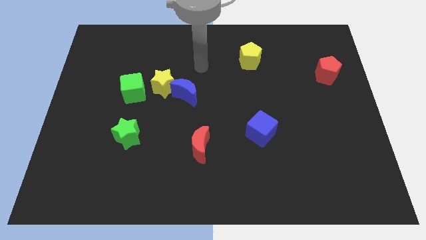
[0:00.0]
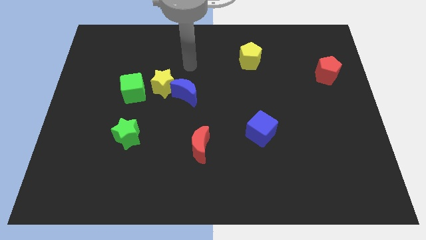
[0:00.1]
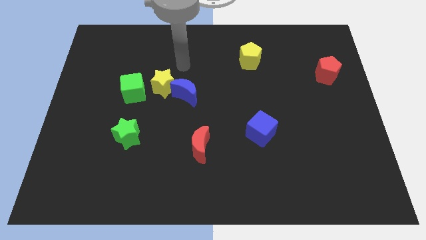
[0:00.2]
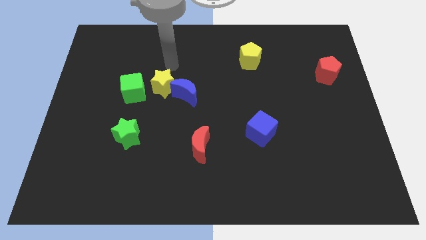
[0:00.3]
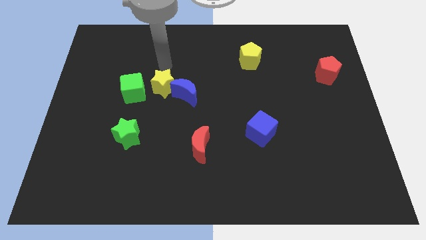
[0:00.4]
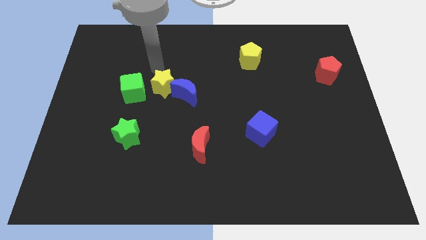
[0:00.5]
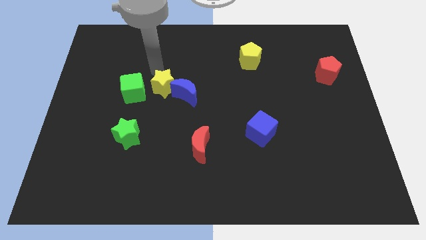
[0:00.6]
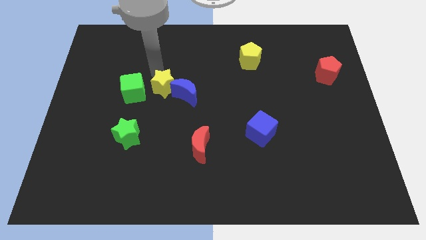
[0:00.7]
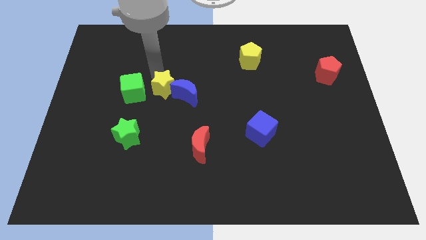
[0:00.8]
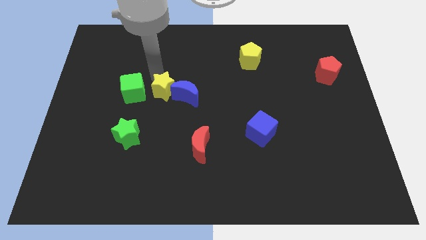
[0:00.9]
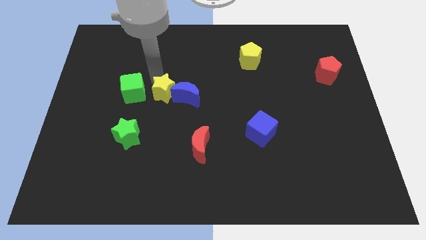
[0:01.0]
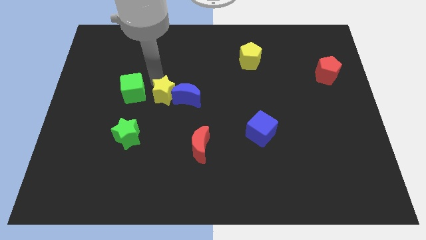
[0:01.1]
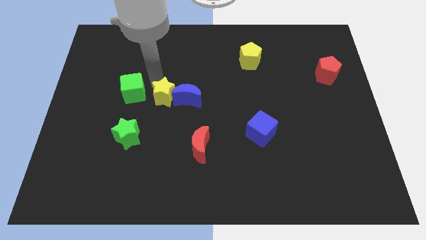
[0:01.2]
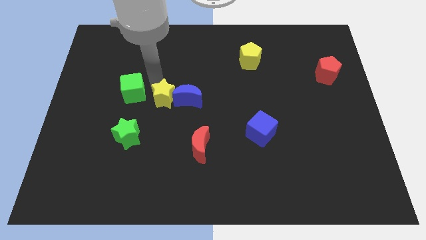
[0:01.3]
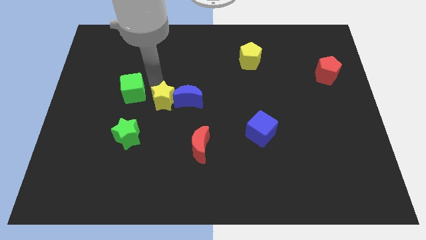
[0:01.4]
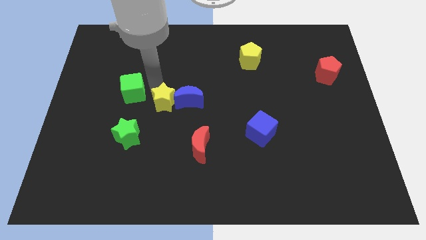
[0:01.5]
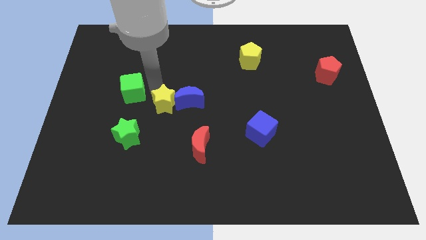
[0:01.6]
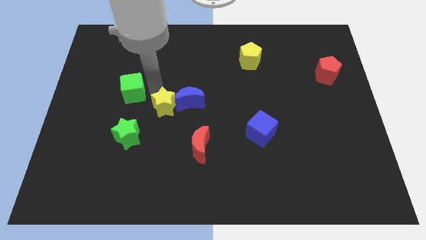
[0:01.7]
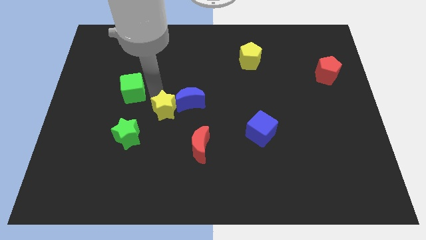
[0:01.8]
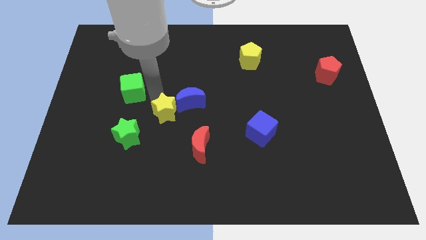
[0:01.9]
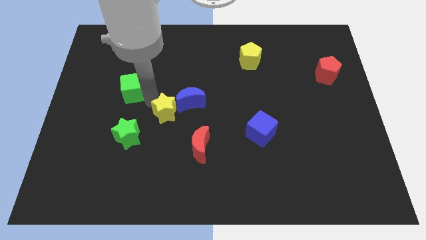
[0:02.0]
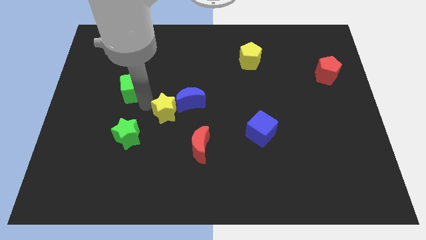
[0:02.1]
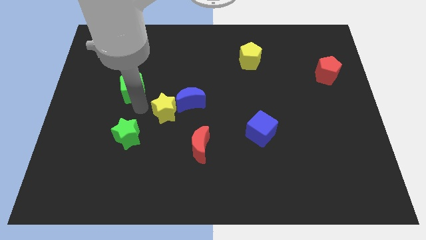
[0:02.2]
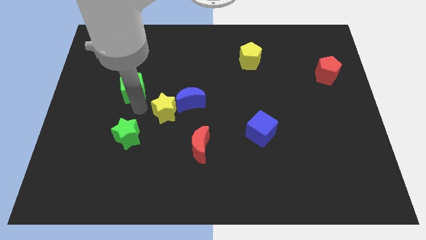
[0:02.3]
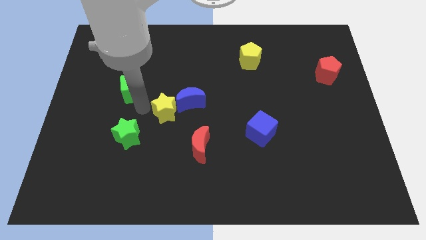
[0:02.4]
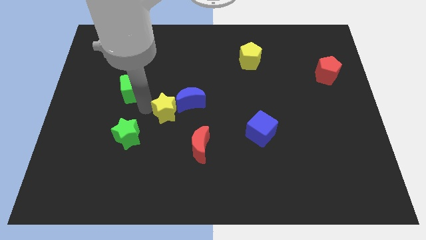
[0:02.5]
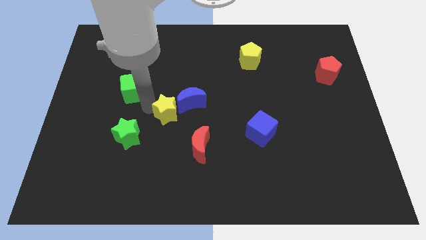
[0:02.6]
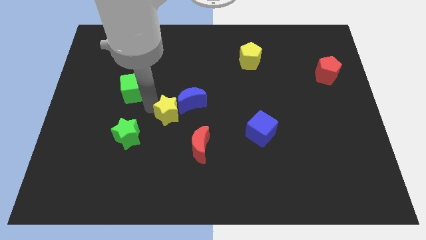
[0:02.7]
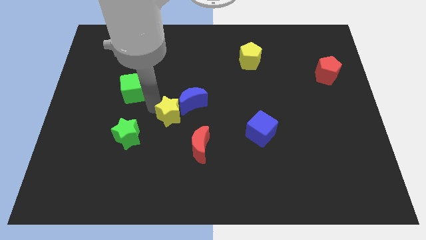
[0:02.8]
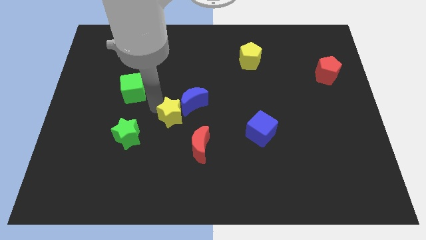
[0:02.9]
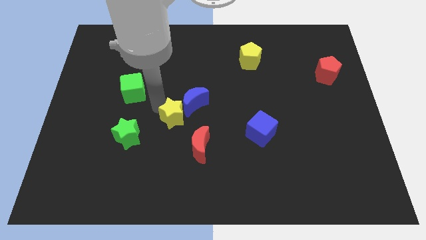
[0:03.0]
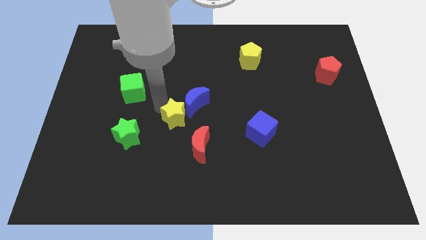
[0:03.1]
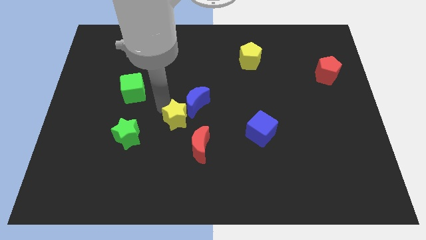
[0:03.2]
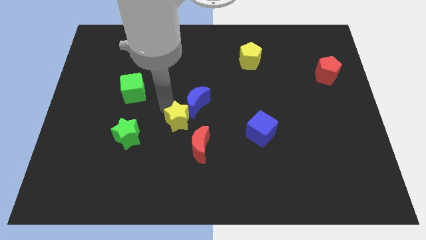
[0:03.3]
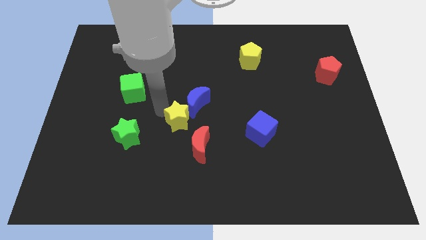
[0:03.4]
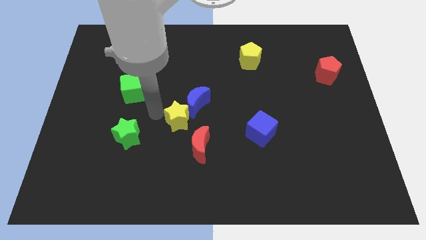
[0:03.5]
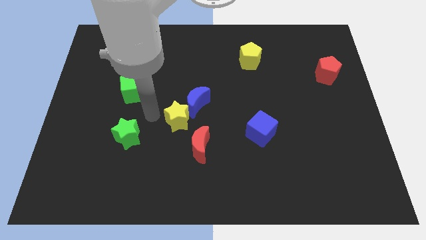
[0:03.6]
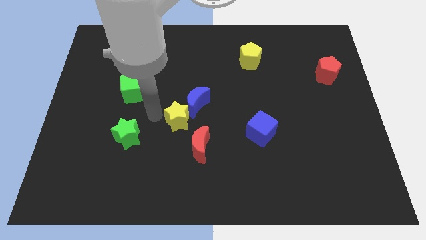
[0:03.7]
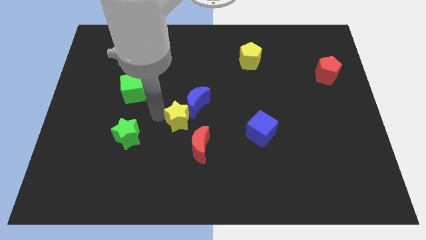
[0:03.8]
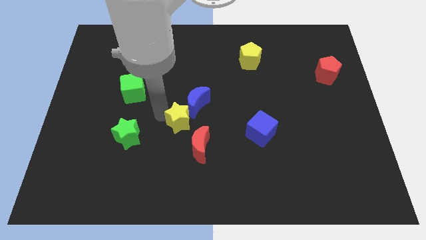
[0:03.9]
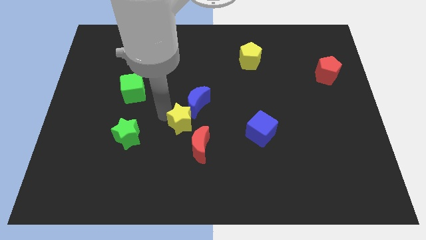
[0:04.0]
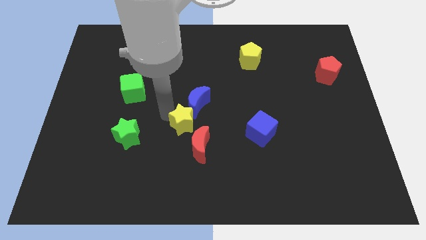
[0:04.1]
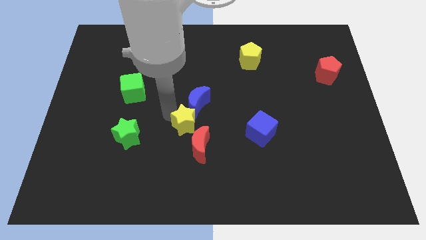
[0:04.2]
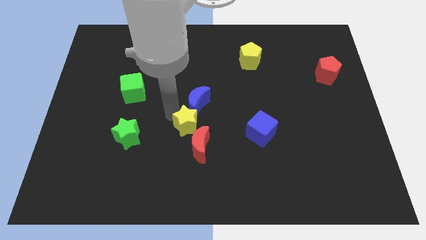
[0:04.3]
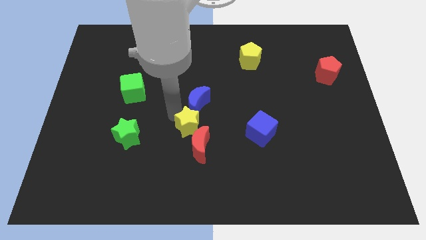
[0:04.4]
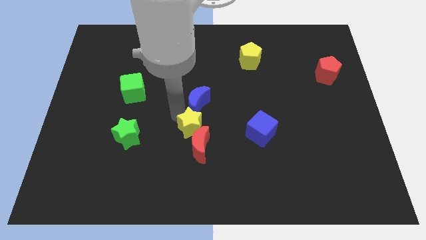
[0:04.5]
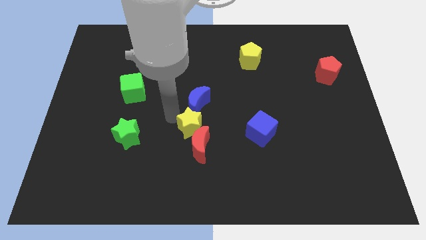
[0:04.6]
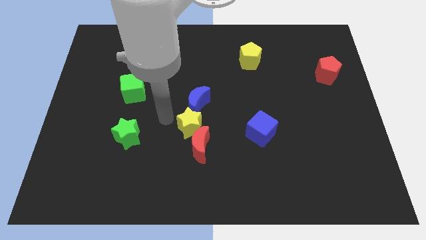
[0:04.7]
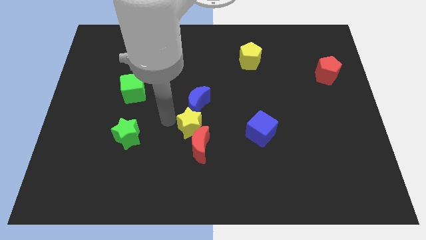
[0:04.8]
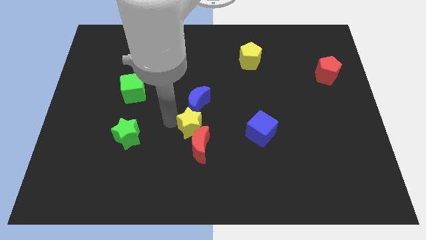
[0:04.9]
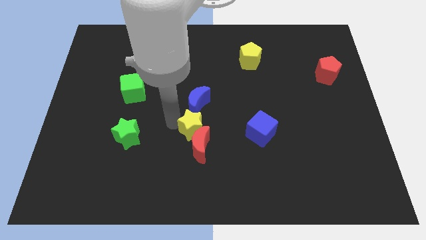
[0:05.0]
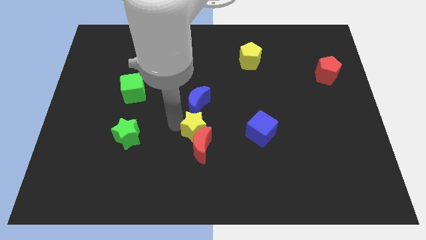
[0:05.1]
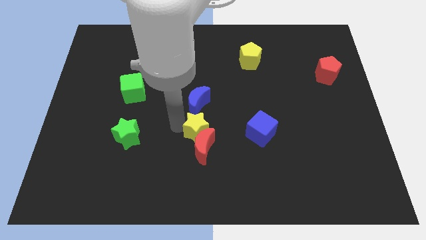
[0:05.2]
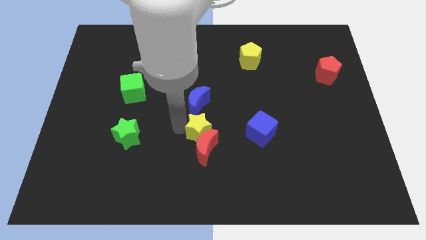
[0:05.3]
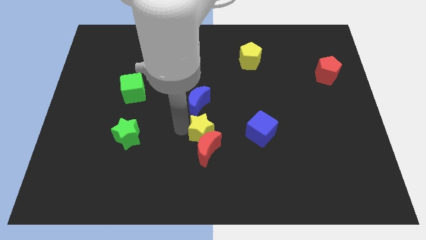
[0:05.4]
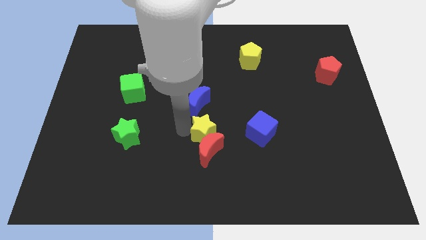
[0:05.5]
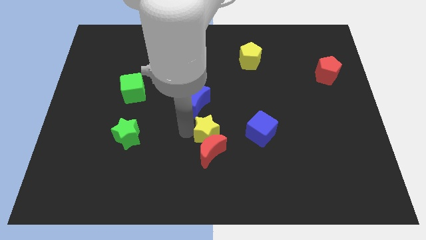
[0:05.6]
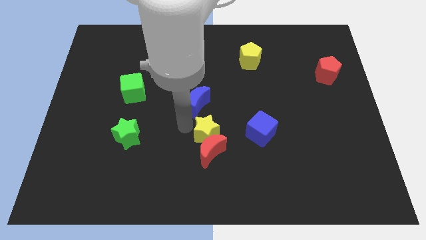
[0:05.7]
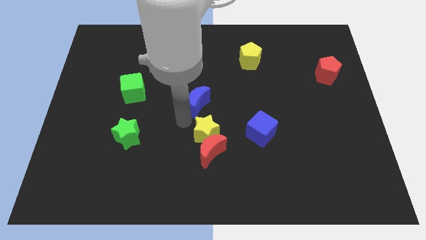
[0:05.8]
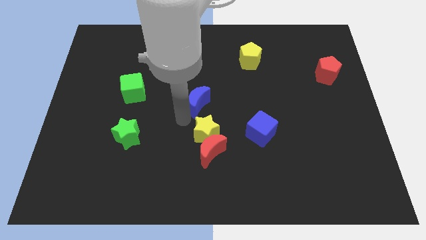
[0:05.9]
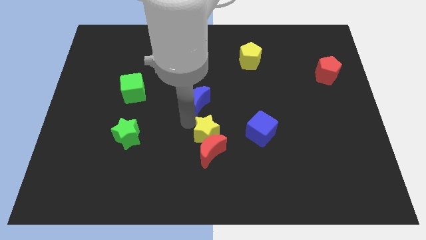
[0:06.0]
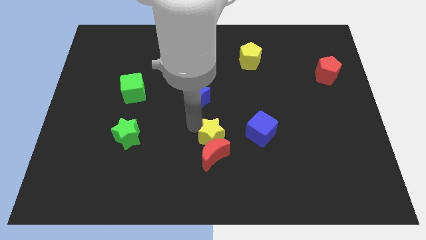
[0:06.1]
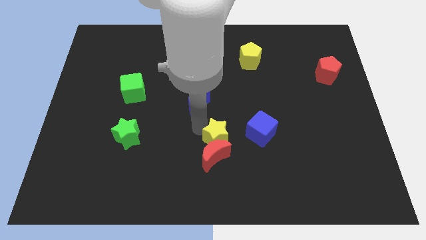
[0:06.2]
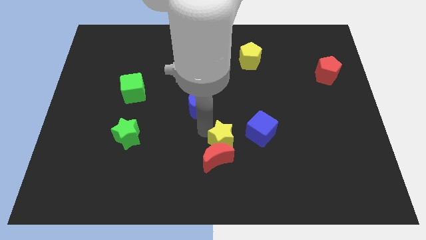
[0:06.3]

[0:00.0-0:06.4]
push the yellow star downwards and to the right diagonally

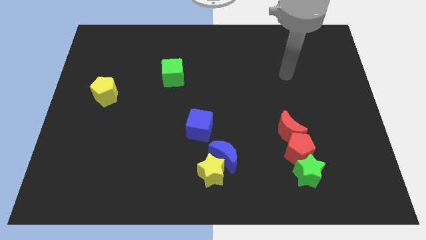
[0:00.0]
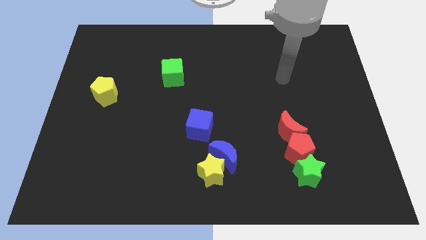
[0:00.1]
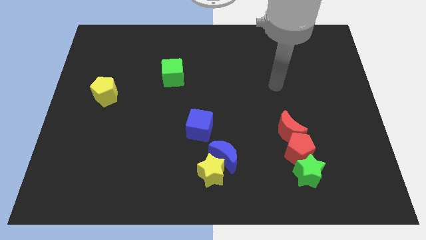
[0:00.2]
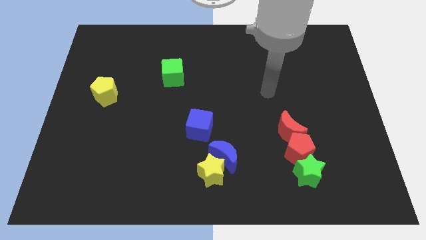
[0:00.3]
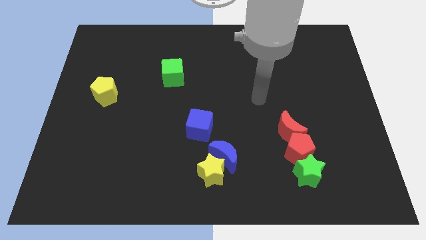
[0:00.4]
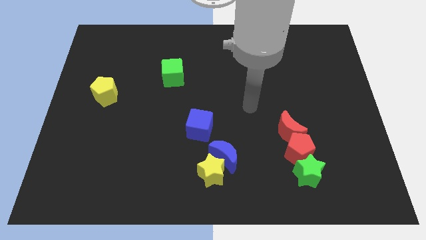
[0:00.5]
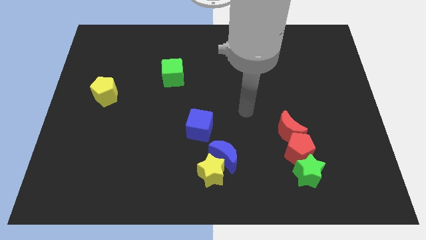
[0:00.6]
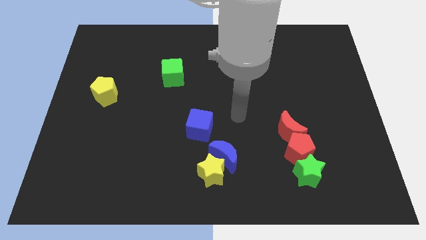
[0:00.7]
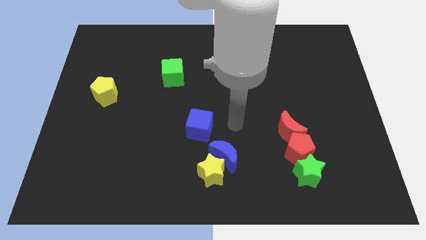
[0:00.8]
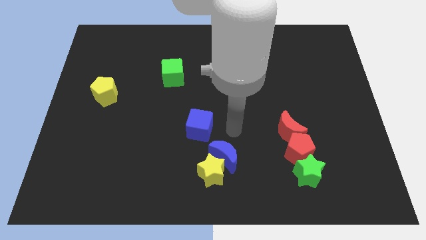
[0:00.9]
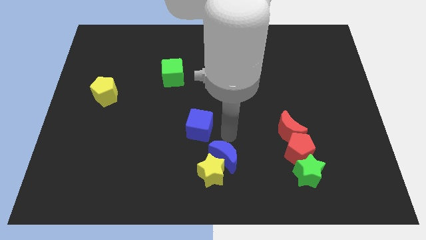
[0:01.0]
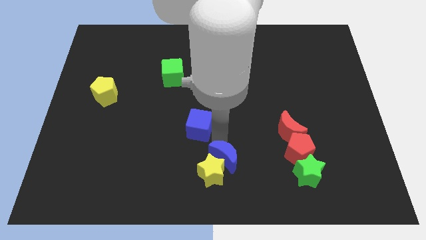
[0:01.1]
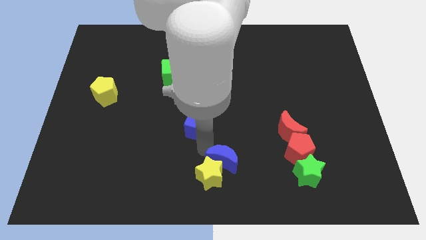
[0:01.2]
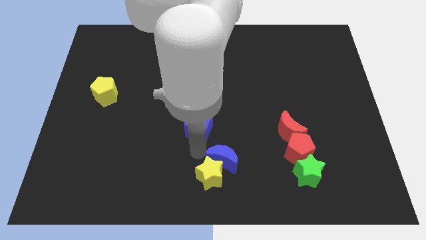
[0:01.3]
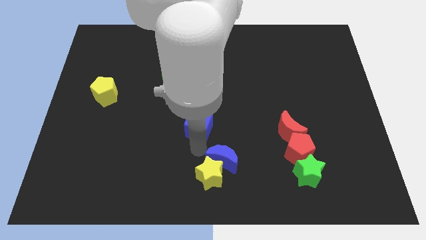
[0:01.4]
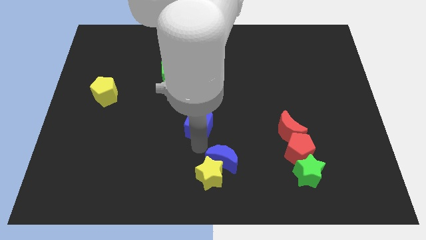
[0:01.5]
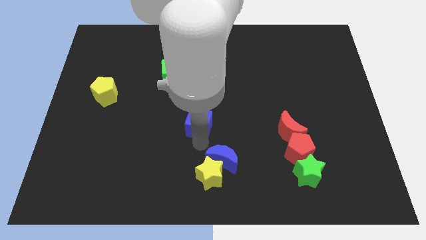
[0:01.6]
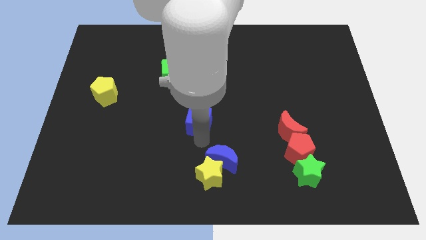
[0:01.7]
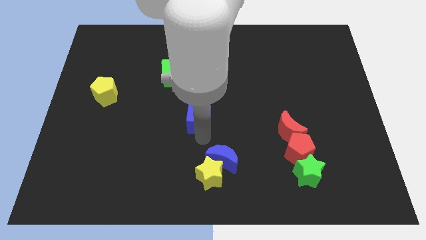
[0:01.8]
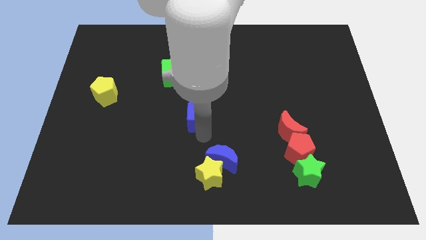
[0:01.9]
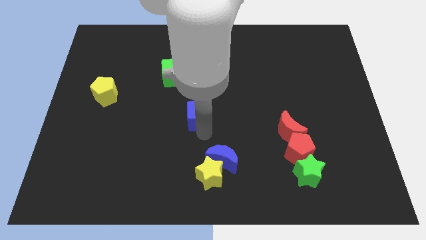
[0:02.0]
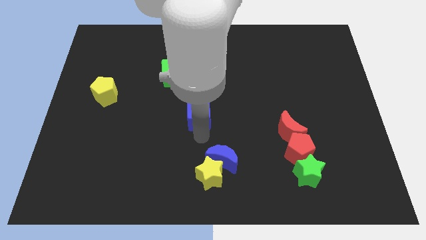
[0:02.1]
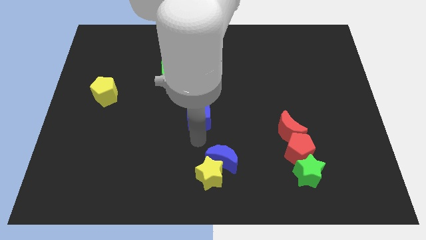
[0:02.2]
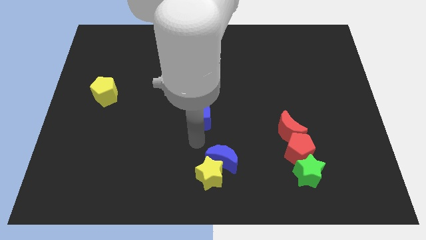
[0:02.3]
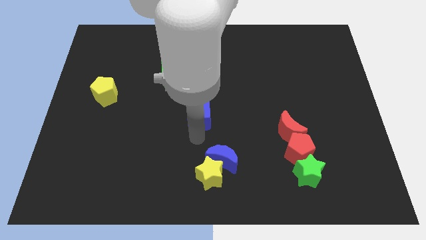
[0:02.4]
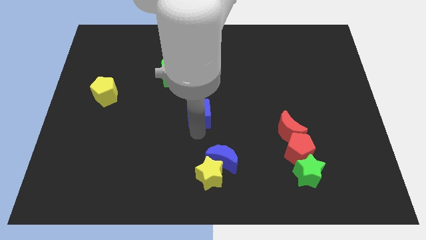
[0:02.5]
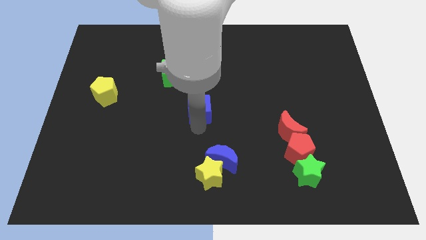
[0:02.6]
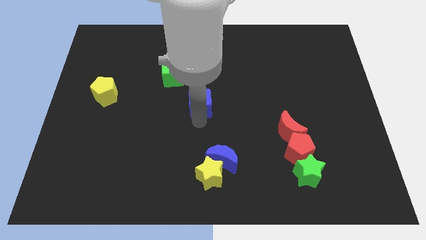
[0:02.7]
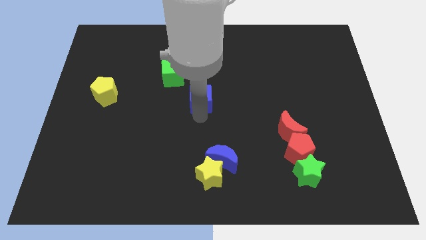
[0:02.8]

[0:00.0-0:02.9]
slightly slide the blue cube up
